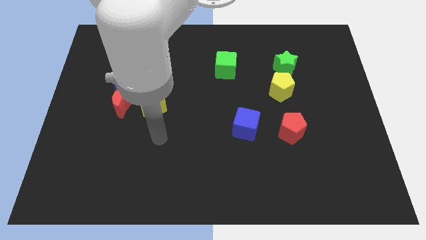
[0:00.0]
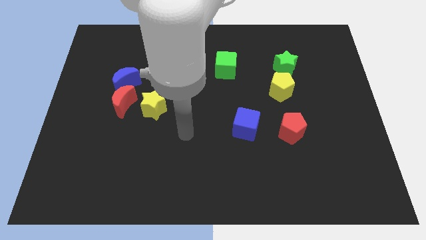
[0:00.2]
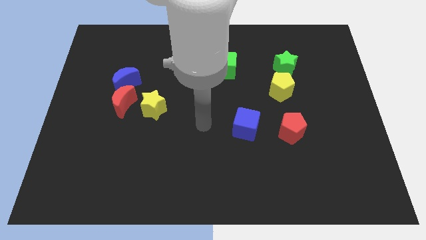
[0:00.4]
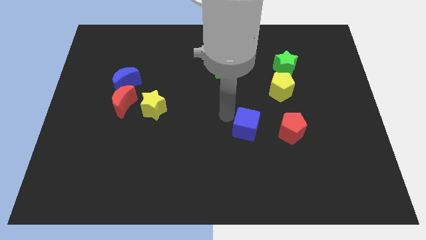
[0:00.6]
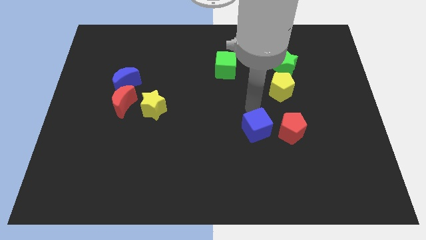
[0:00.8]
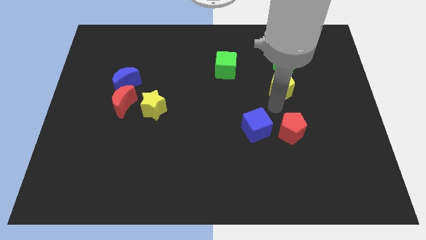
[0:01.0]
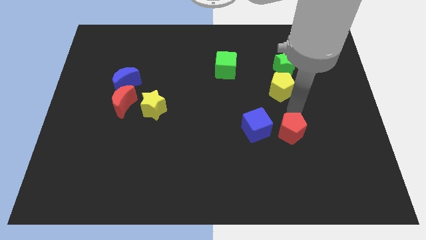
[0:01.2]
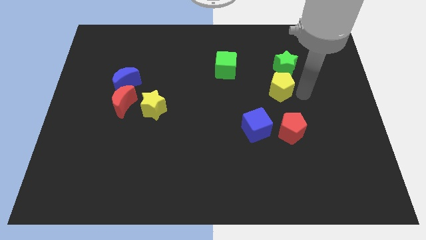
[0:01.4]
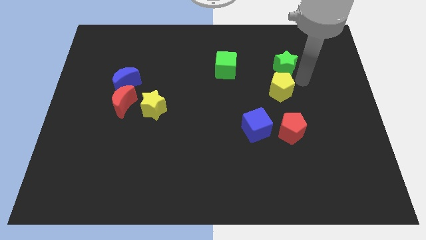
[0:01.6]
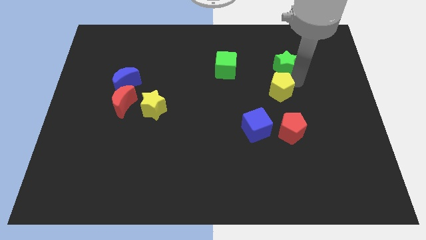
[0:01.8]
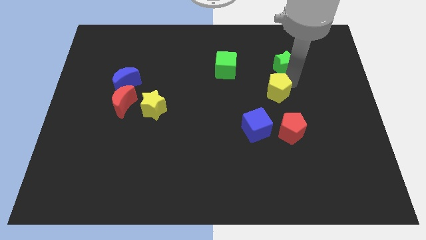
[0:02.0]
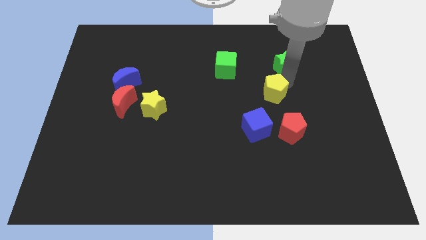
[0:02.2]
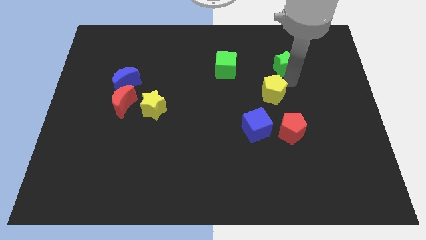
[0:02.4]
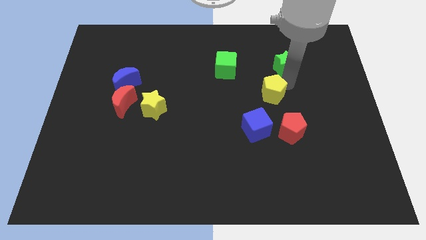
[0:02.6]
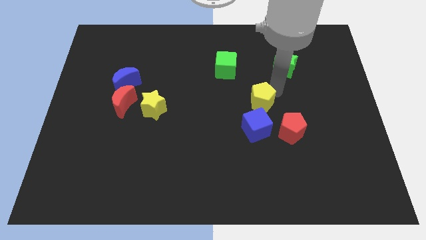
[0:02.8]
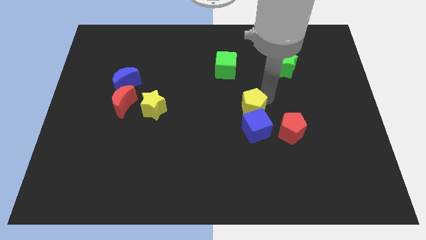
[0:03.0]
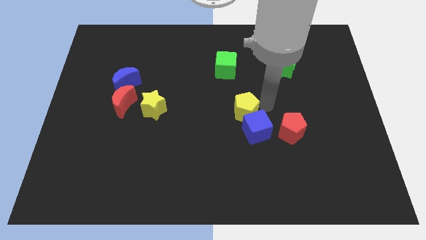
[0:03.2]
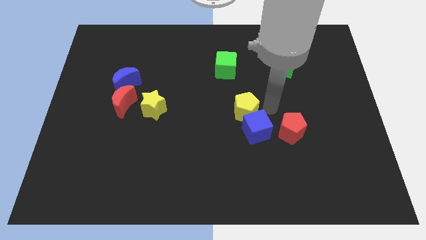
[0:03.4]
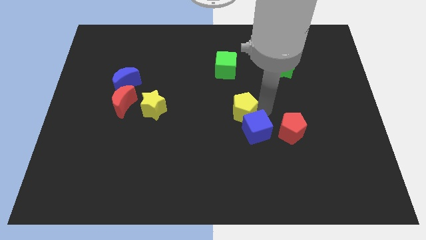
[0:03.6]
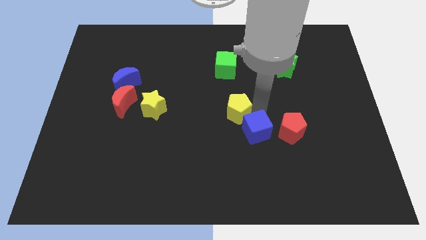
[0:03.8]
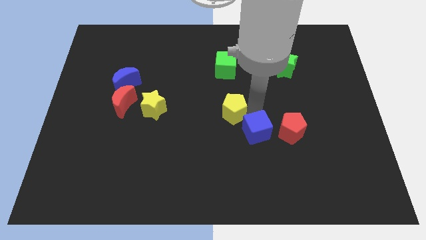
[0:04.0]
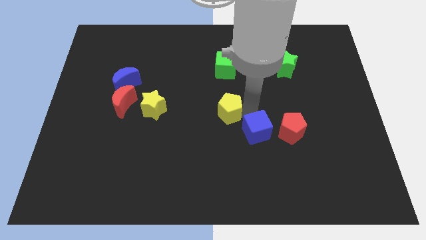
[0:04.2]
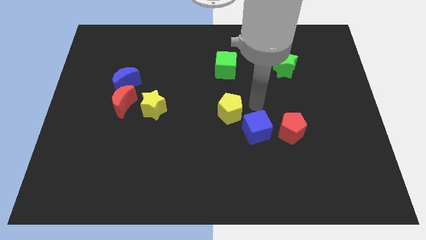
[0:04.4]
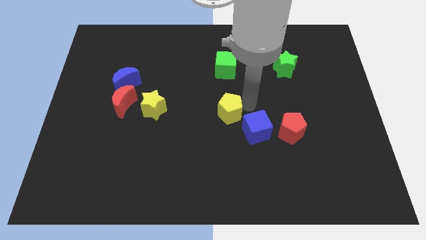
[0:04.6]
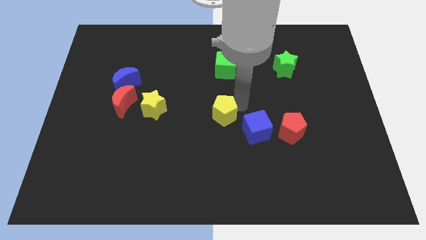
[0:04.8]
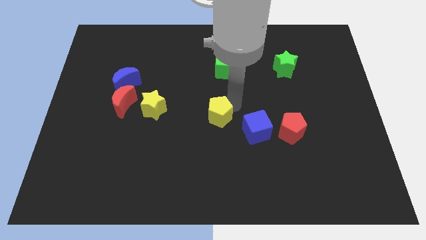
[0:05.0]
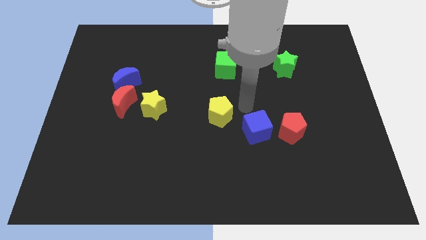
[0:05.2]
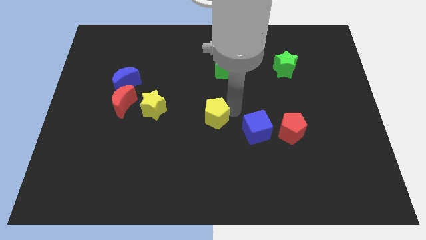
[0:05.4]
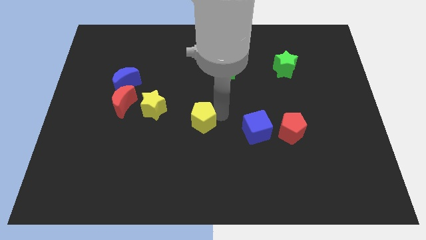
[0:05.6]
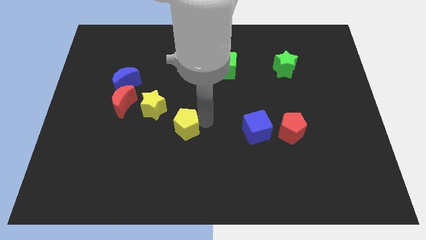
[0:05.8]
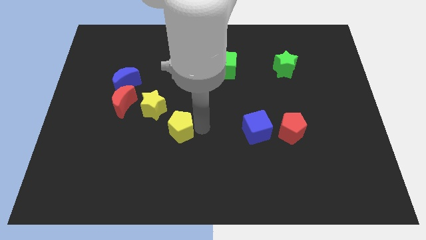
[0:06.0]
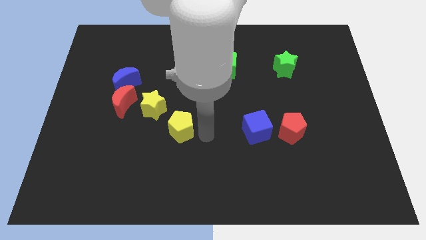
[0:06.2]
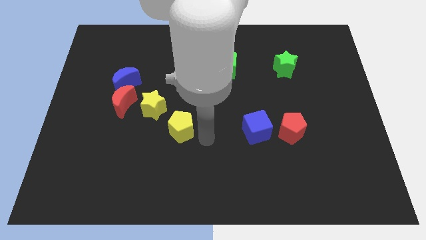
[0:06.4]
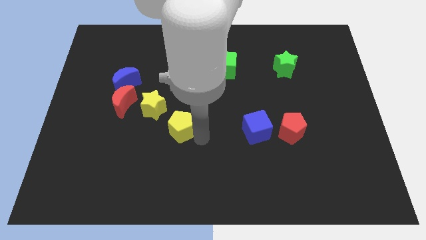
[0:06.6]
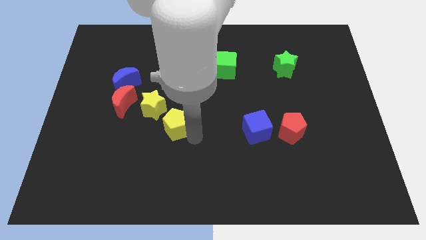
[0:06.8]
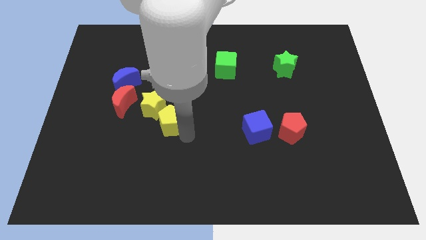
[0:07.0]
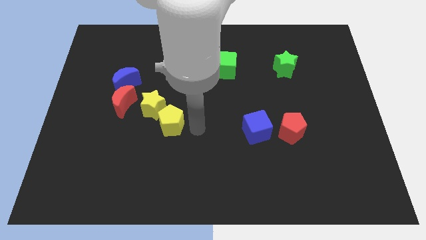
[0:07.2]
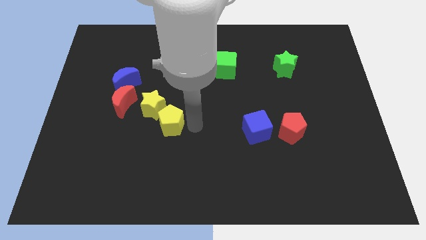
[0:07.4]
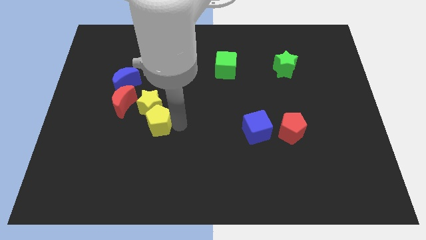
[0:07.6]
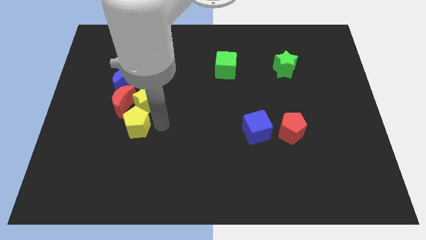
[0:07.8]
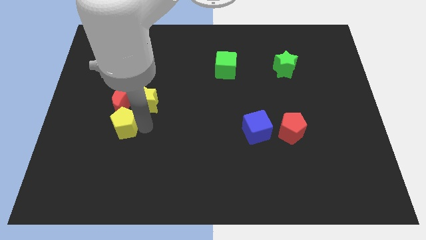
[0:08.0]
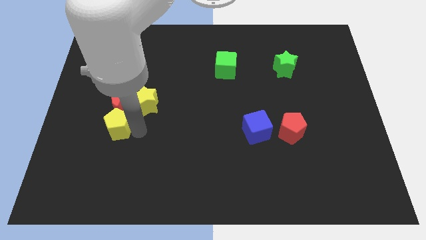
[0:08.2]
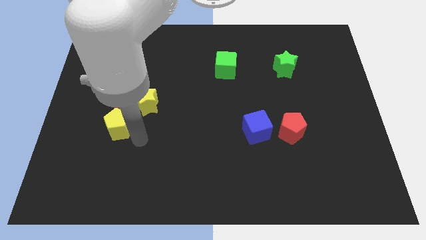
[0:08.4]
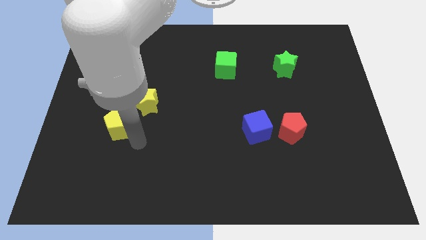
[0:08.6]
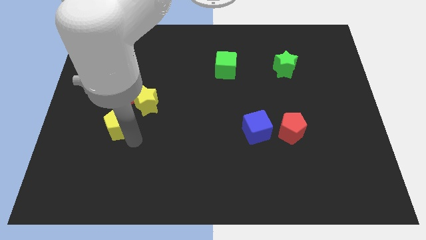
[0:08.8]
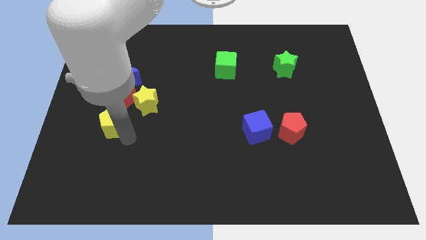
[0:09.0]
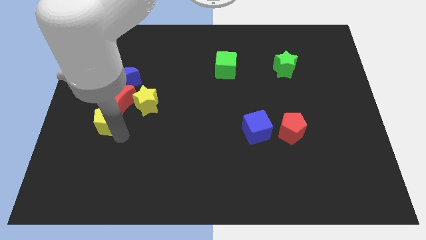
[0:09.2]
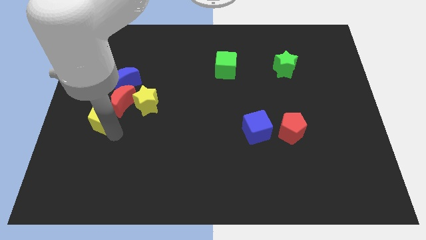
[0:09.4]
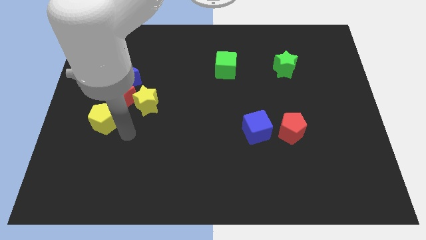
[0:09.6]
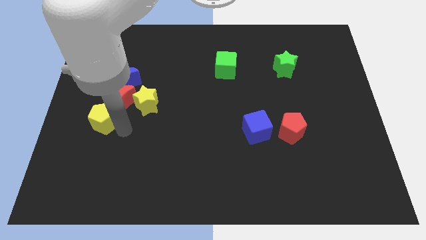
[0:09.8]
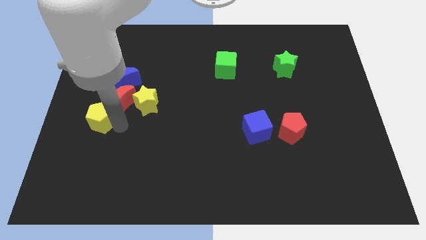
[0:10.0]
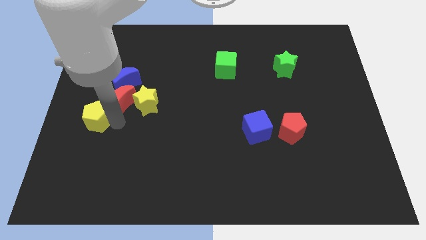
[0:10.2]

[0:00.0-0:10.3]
push the yellow pentagon to the left side

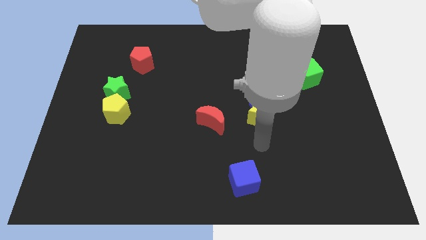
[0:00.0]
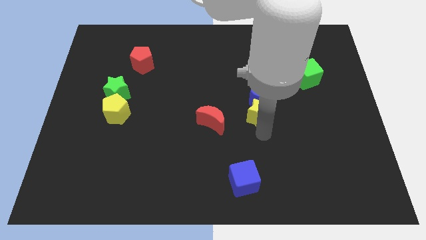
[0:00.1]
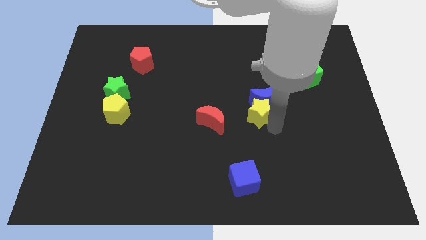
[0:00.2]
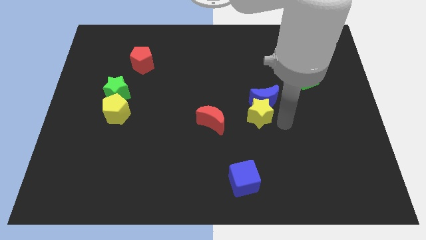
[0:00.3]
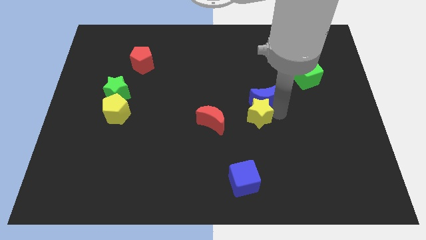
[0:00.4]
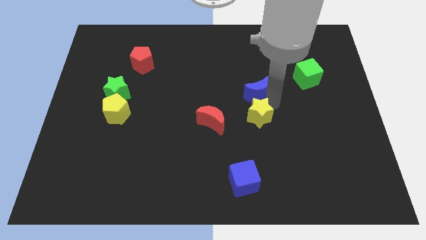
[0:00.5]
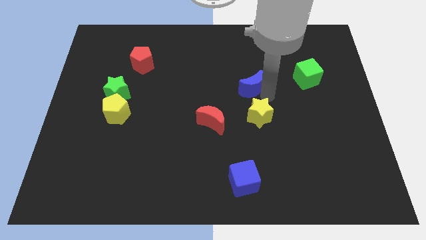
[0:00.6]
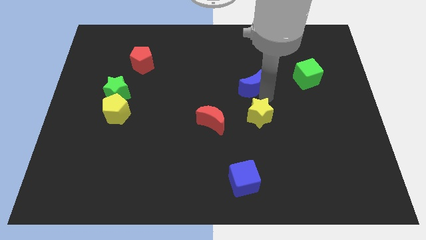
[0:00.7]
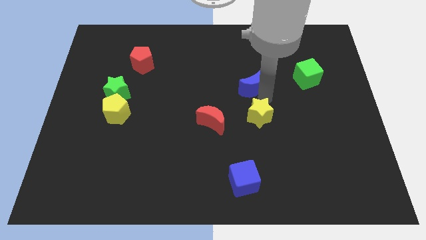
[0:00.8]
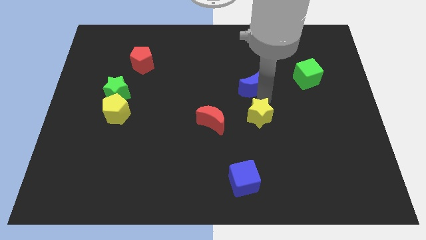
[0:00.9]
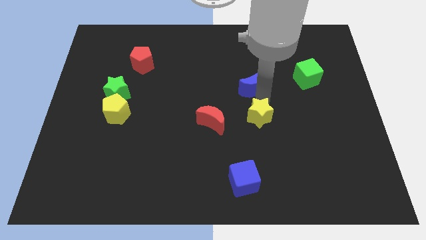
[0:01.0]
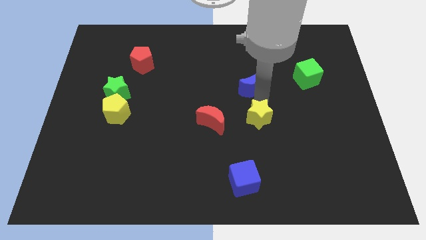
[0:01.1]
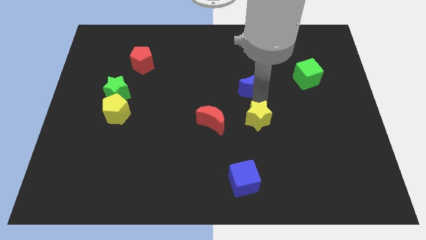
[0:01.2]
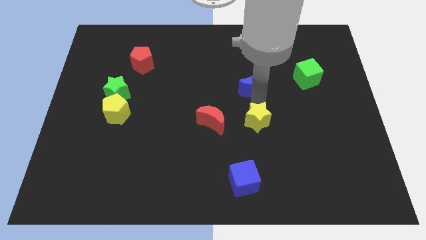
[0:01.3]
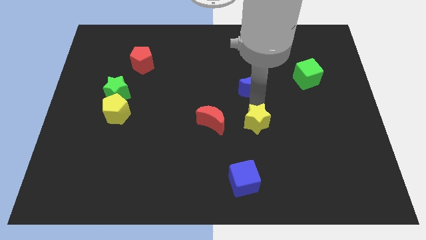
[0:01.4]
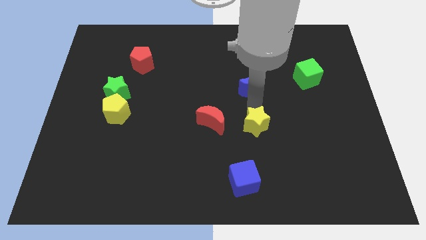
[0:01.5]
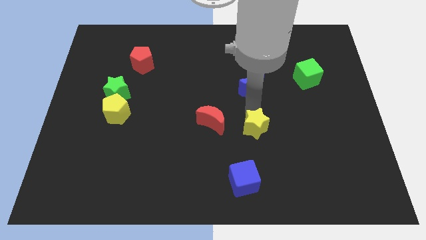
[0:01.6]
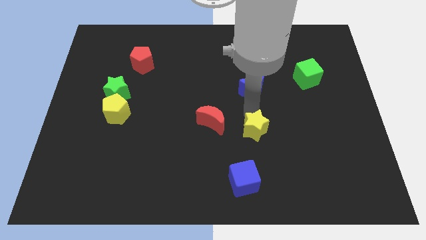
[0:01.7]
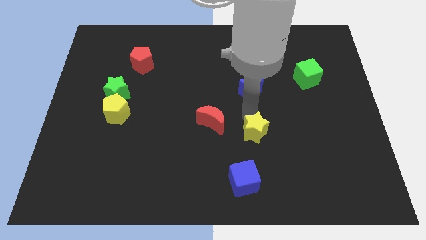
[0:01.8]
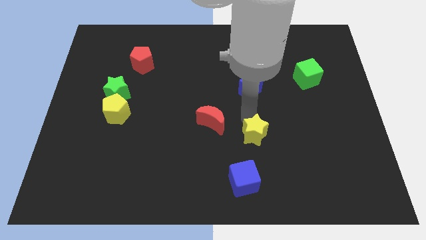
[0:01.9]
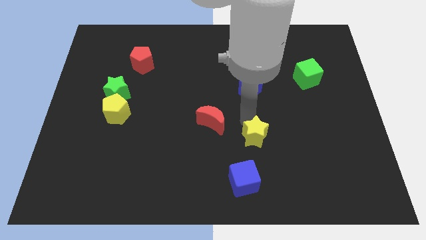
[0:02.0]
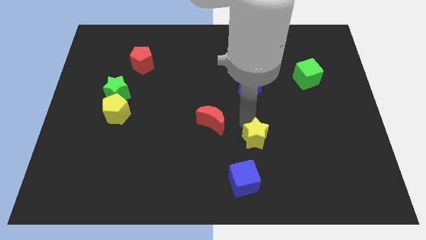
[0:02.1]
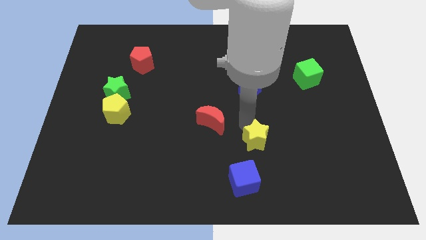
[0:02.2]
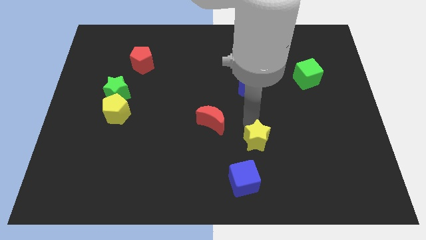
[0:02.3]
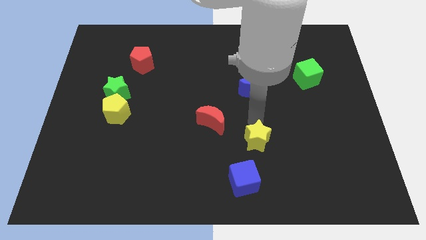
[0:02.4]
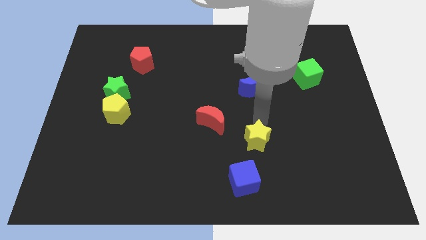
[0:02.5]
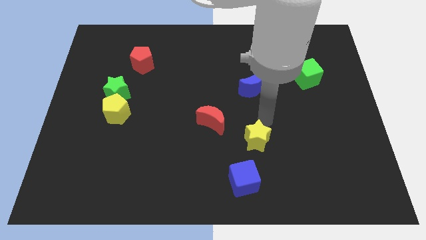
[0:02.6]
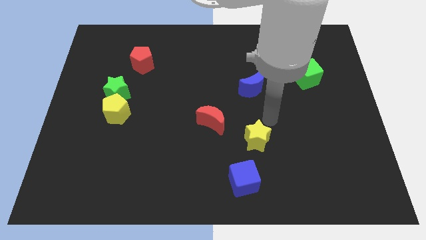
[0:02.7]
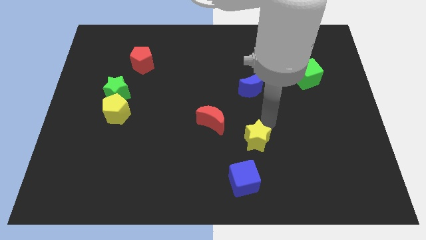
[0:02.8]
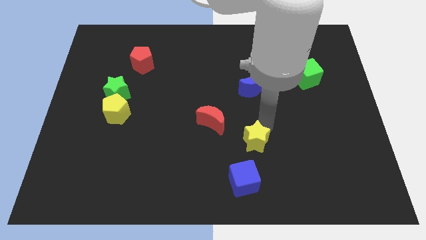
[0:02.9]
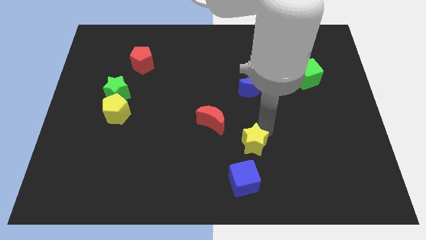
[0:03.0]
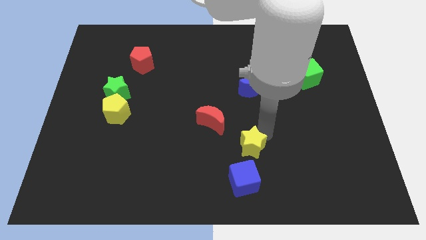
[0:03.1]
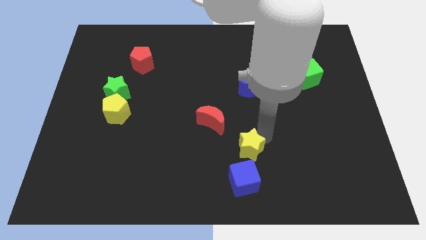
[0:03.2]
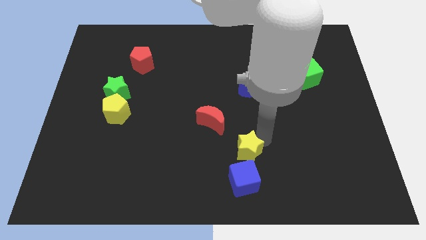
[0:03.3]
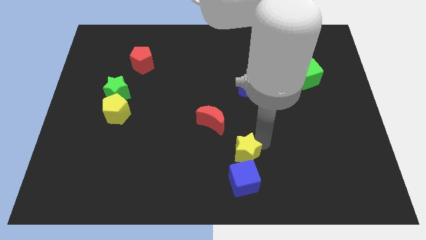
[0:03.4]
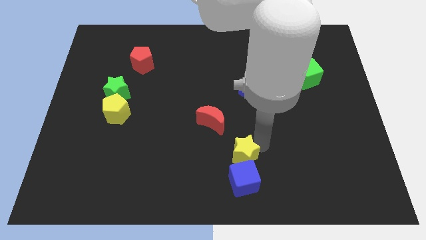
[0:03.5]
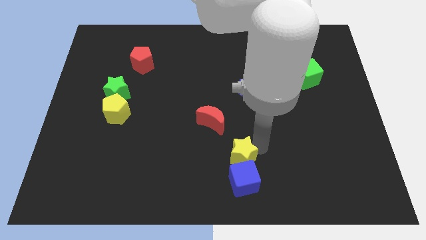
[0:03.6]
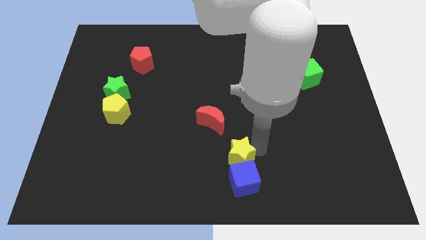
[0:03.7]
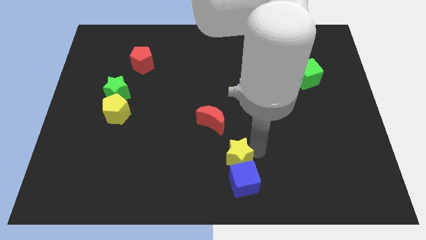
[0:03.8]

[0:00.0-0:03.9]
put the yellow star to the bottom
